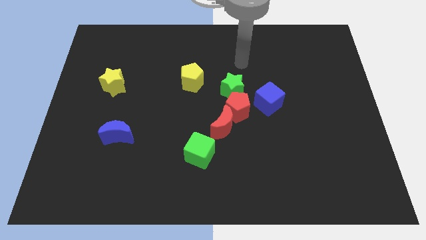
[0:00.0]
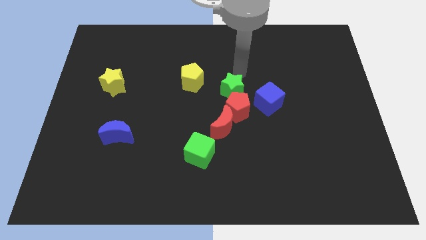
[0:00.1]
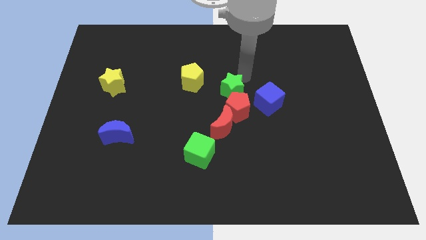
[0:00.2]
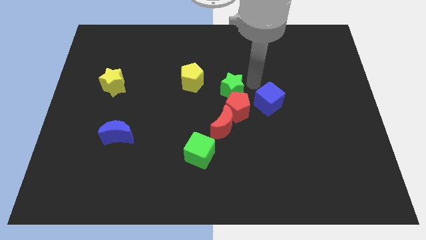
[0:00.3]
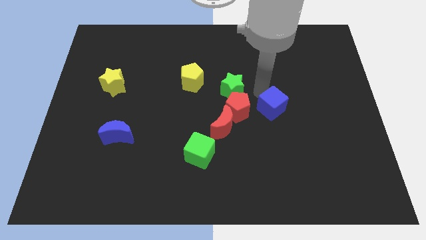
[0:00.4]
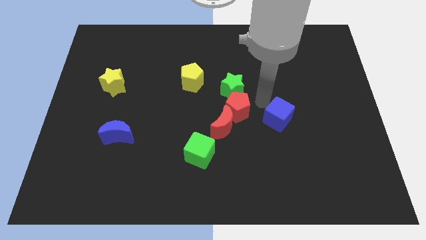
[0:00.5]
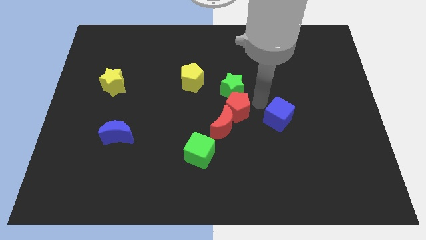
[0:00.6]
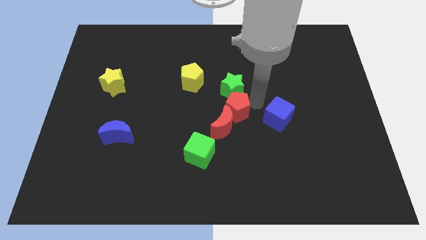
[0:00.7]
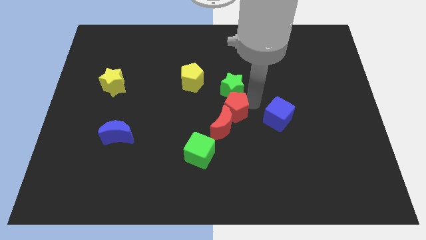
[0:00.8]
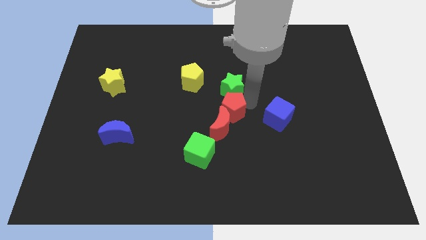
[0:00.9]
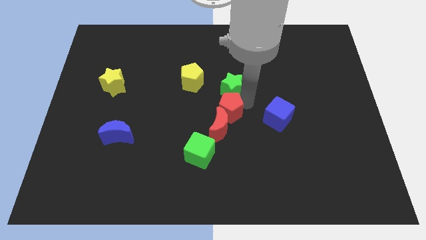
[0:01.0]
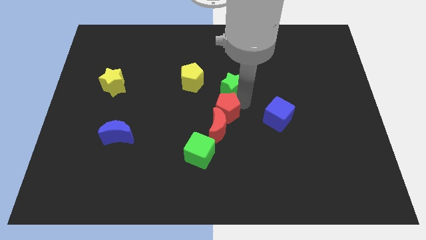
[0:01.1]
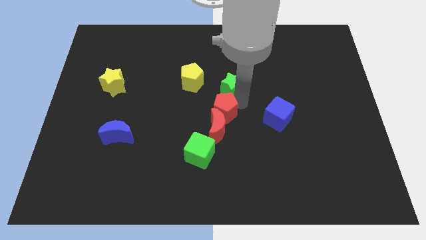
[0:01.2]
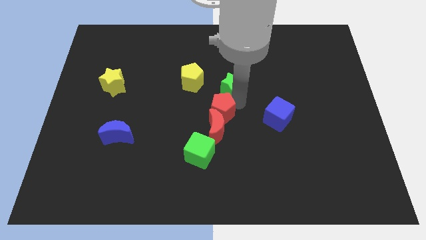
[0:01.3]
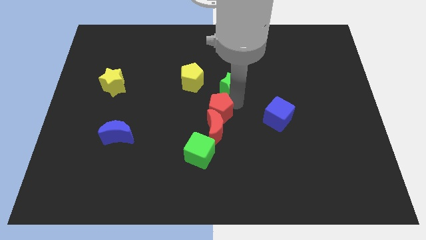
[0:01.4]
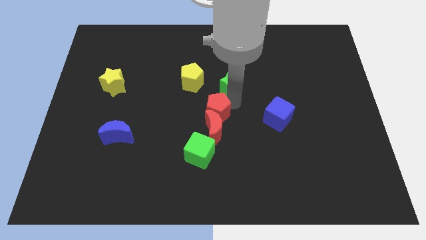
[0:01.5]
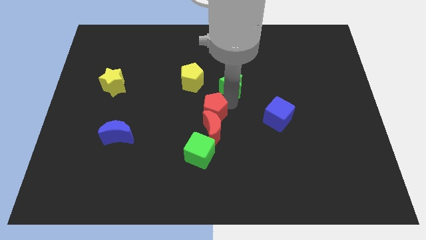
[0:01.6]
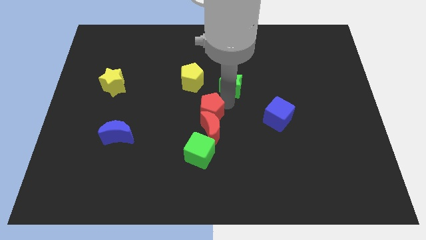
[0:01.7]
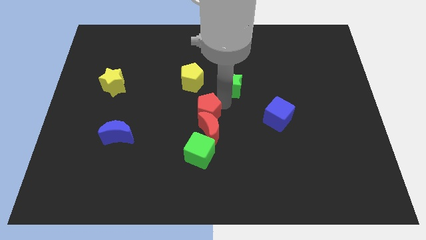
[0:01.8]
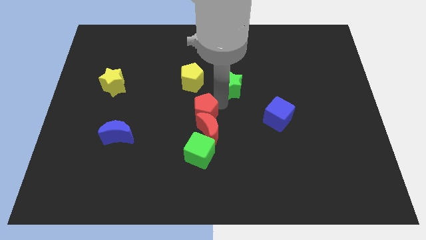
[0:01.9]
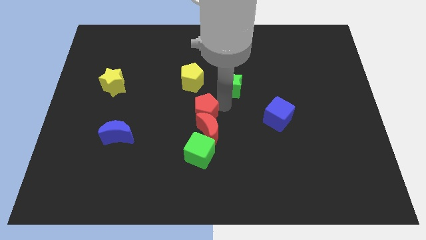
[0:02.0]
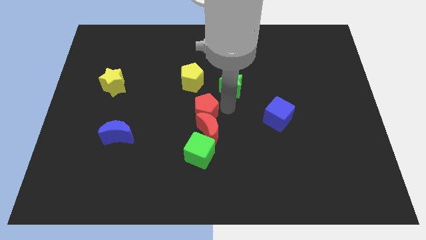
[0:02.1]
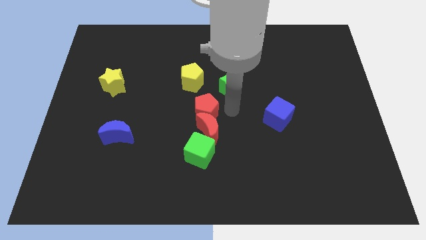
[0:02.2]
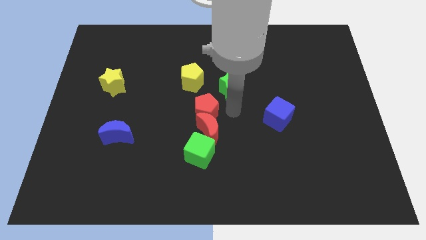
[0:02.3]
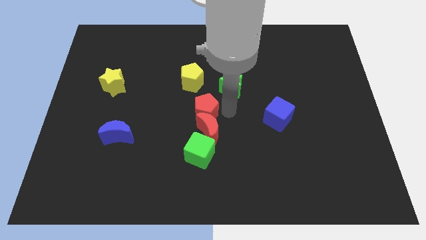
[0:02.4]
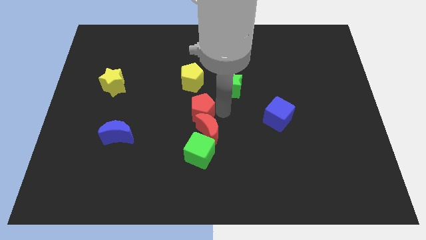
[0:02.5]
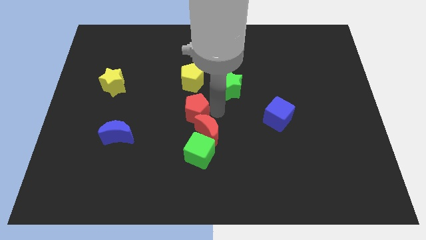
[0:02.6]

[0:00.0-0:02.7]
pull the red pentagon apart from the group of blocks

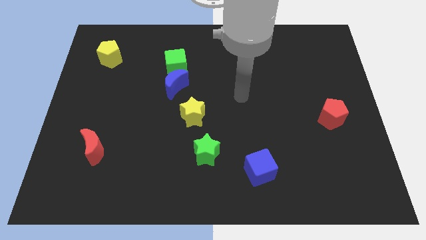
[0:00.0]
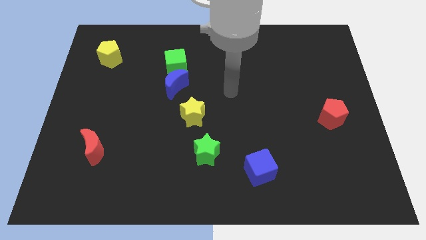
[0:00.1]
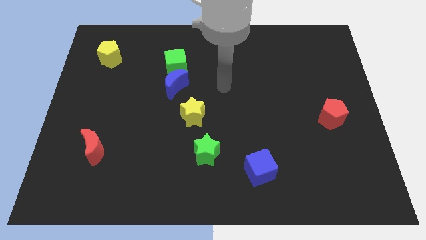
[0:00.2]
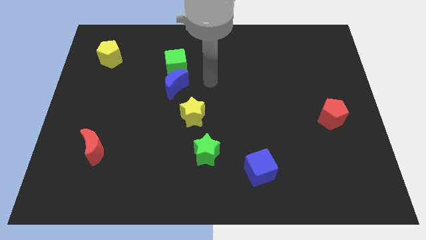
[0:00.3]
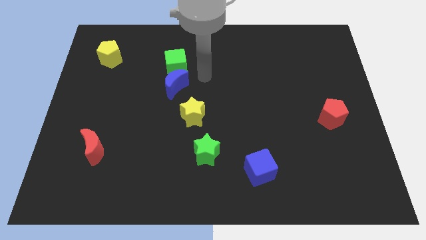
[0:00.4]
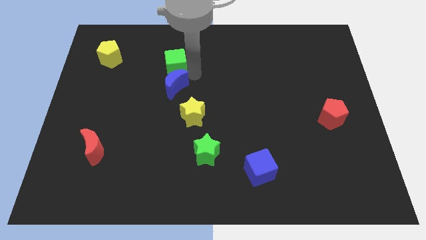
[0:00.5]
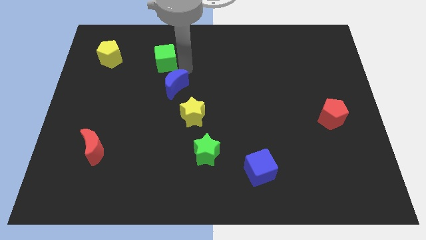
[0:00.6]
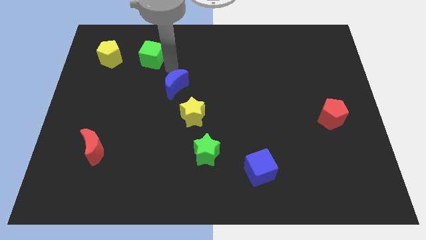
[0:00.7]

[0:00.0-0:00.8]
separate the blue moon from the green cube

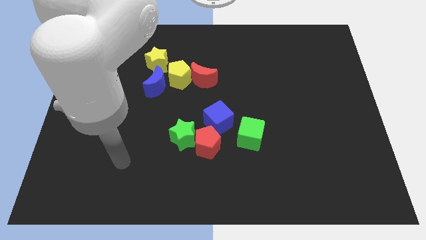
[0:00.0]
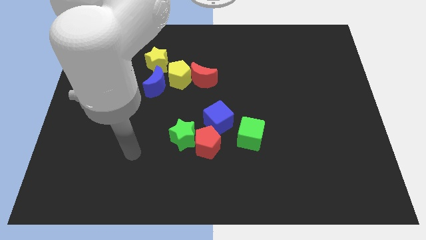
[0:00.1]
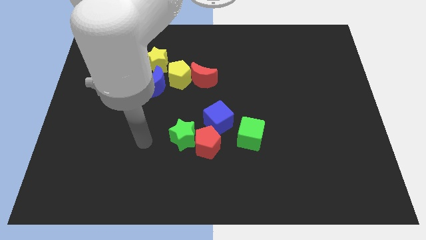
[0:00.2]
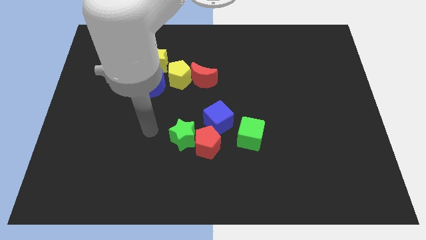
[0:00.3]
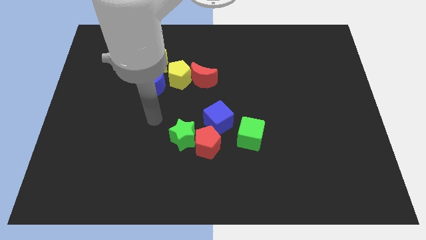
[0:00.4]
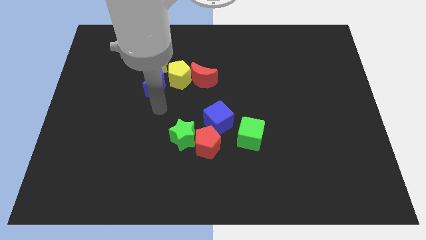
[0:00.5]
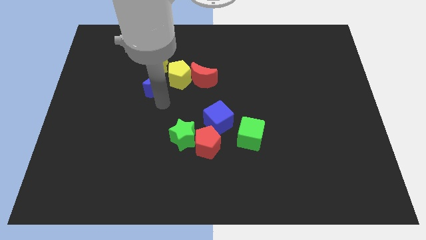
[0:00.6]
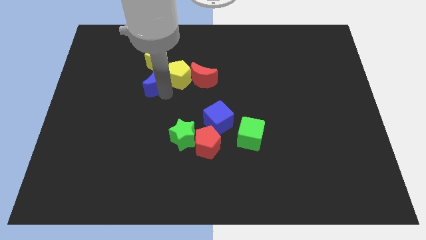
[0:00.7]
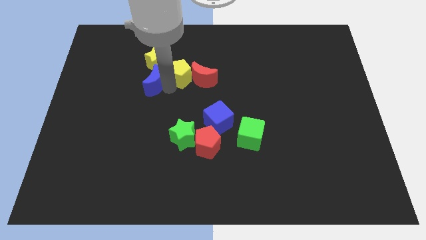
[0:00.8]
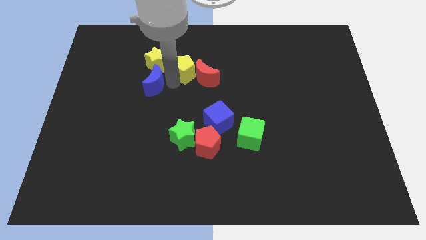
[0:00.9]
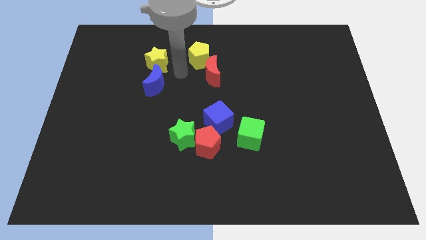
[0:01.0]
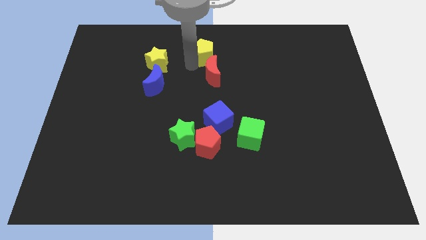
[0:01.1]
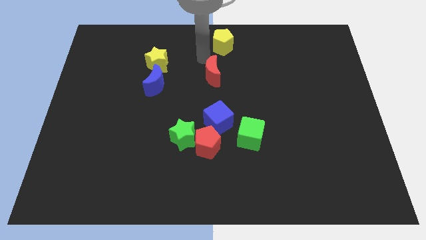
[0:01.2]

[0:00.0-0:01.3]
move the red moon away from the yellow pentagon

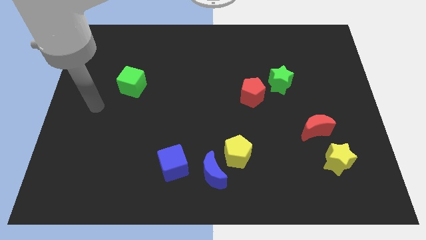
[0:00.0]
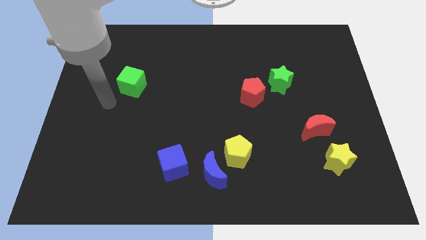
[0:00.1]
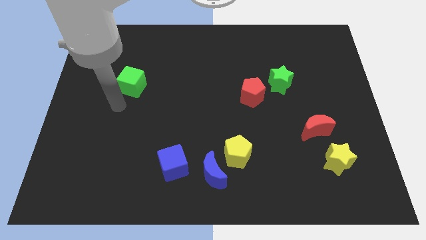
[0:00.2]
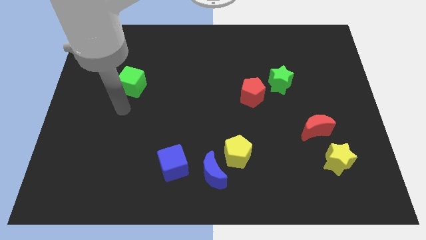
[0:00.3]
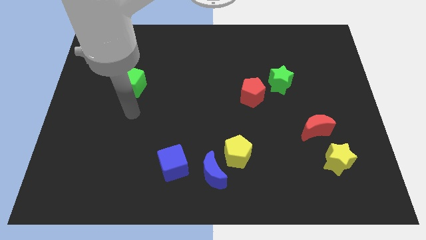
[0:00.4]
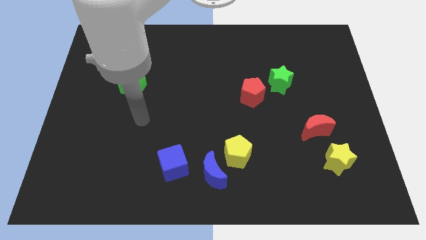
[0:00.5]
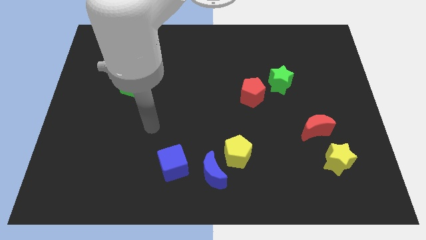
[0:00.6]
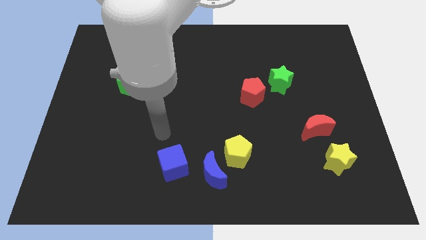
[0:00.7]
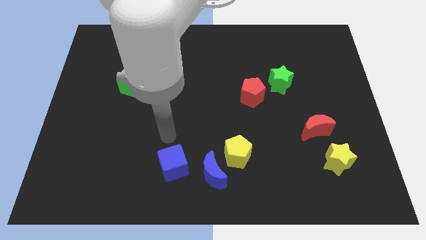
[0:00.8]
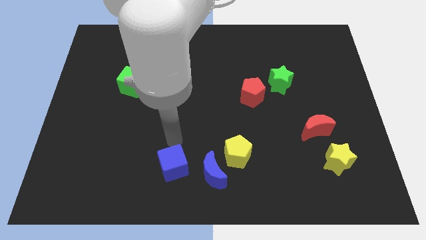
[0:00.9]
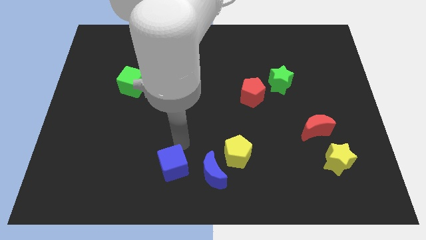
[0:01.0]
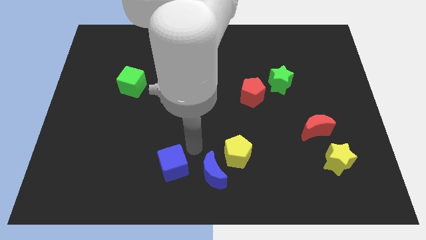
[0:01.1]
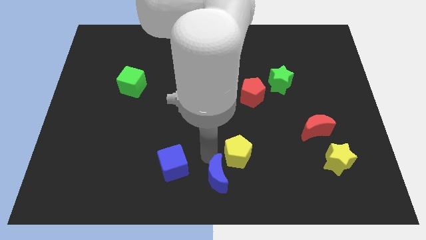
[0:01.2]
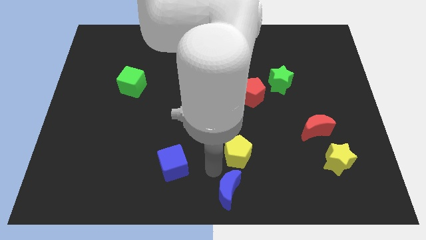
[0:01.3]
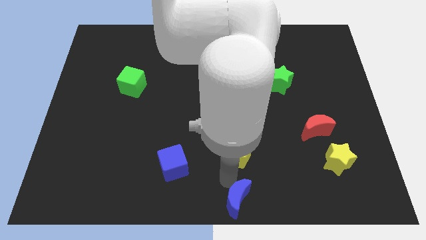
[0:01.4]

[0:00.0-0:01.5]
pull the yellow pentagon apart from the blue moon

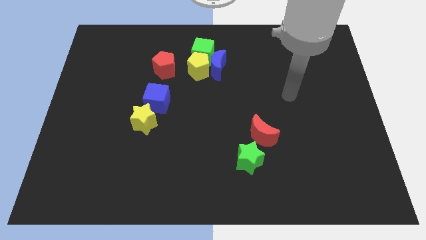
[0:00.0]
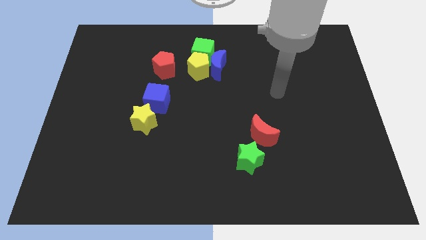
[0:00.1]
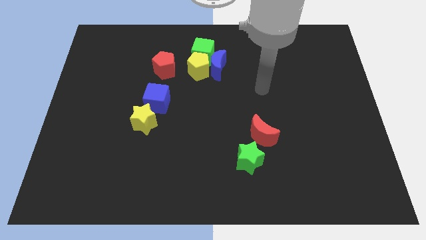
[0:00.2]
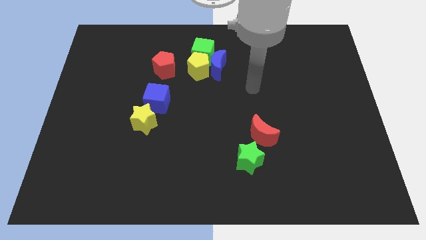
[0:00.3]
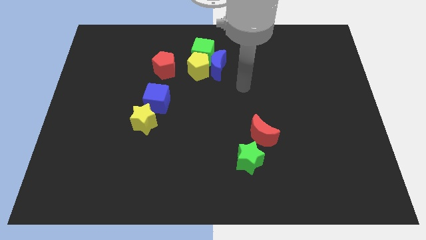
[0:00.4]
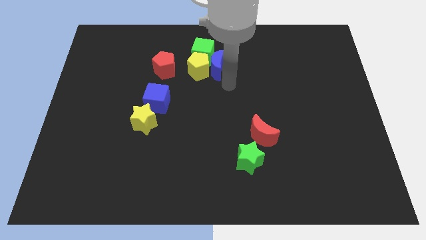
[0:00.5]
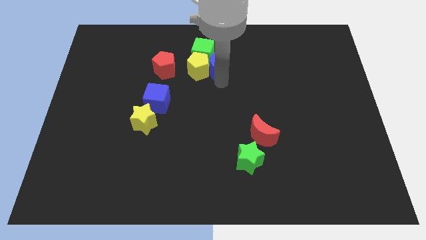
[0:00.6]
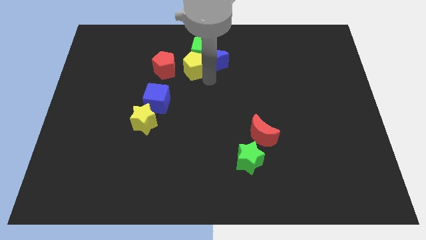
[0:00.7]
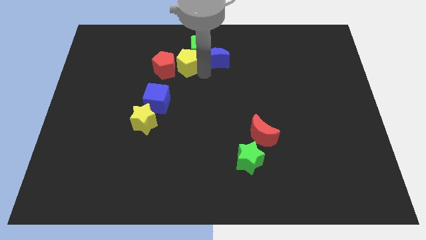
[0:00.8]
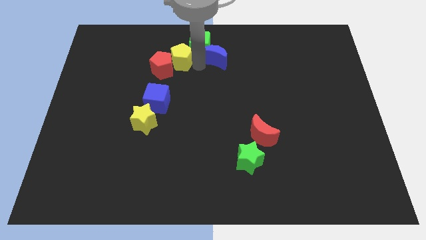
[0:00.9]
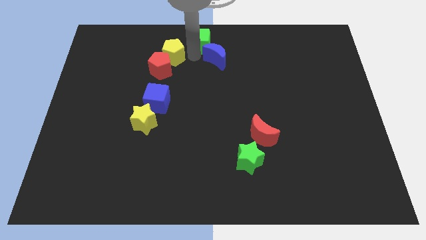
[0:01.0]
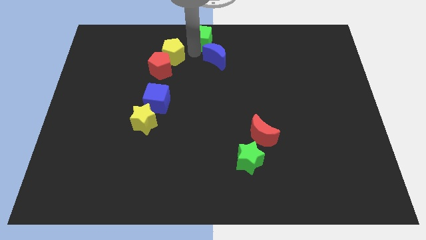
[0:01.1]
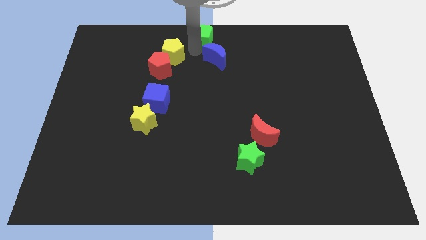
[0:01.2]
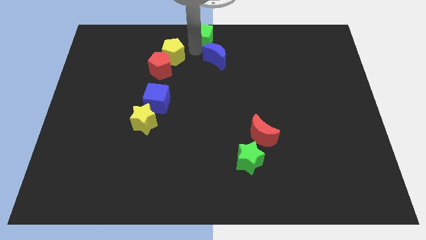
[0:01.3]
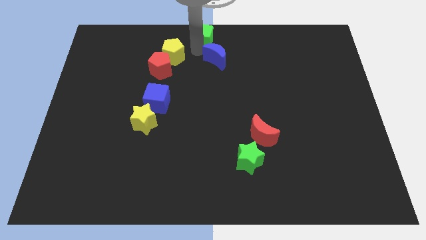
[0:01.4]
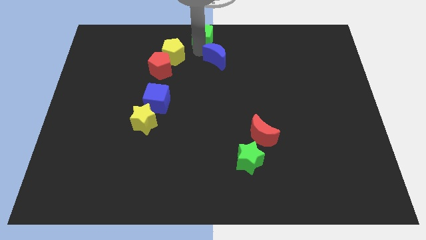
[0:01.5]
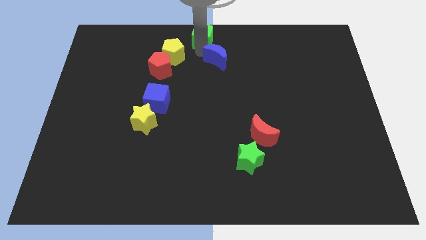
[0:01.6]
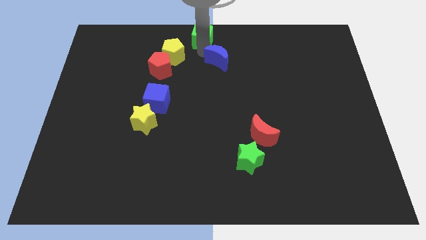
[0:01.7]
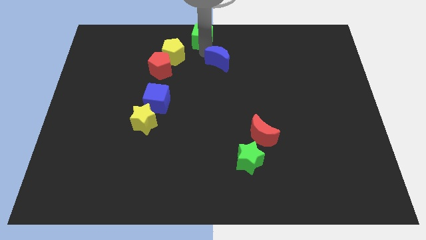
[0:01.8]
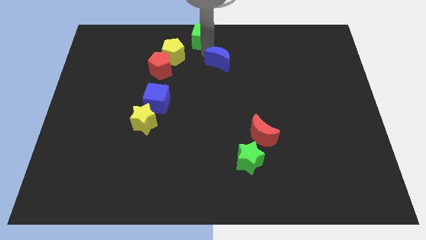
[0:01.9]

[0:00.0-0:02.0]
move the blue moon away from the yellow pentagon and green cube

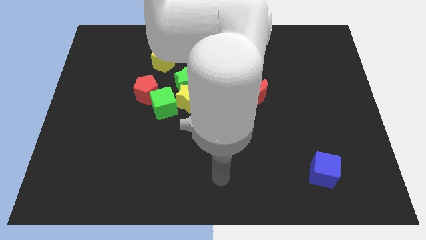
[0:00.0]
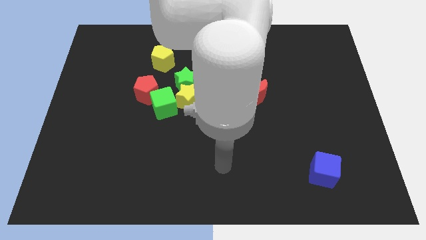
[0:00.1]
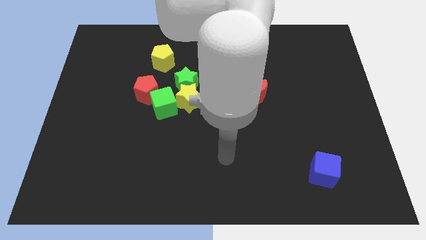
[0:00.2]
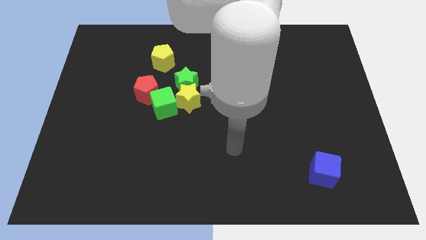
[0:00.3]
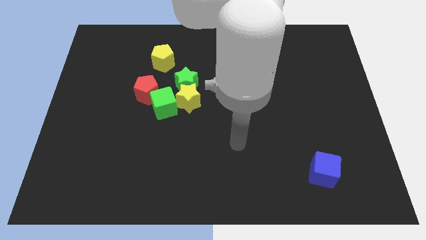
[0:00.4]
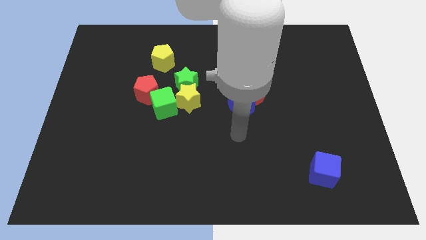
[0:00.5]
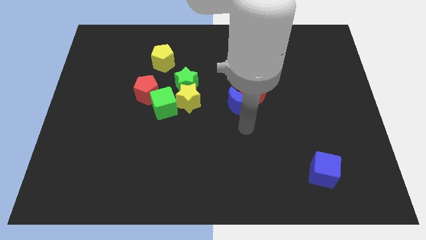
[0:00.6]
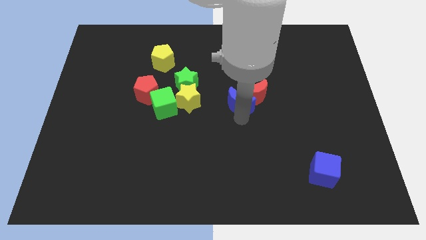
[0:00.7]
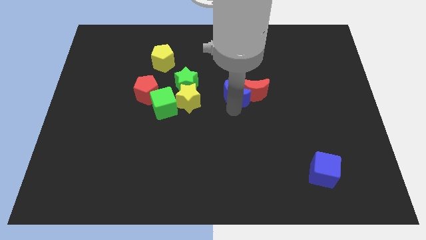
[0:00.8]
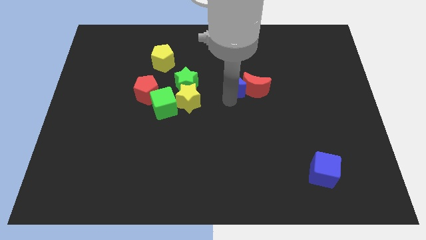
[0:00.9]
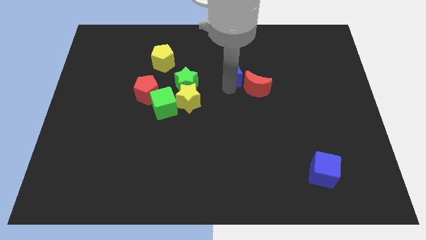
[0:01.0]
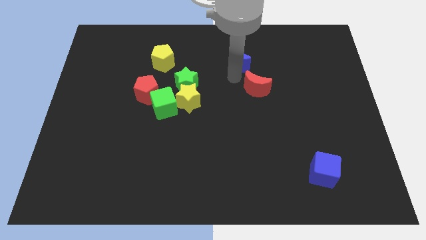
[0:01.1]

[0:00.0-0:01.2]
move the red moon away from the blue moon
